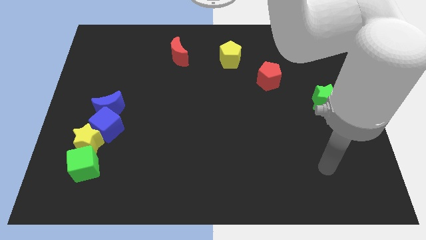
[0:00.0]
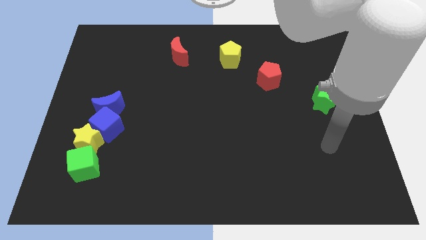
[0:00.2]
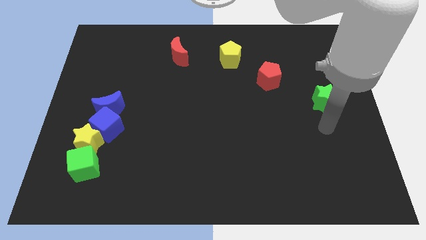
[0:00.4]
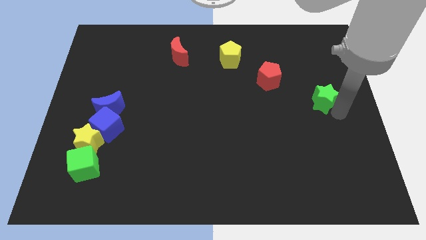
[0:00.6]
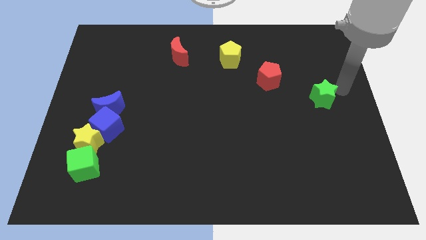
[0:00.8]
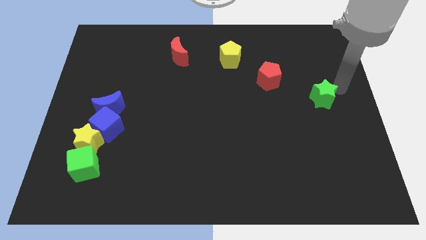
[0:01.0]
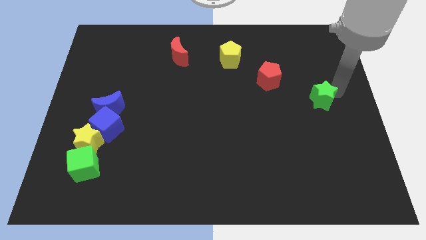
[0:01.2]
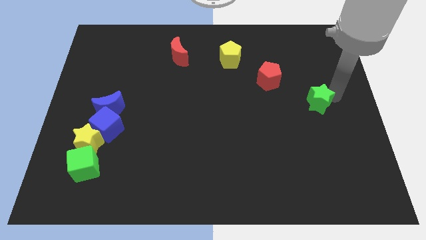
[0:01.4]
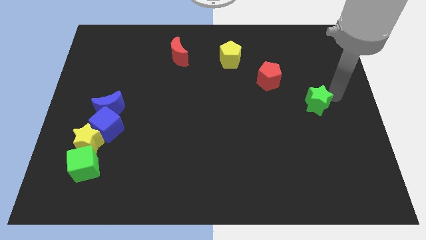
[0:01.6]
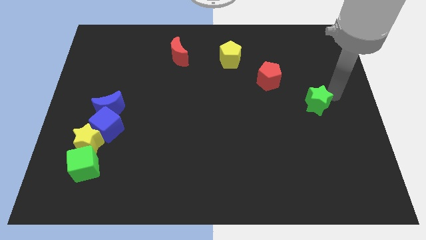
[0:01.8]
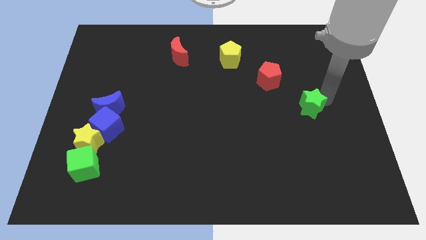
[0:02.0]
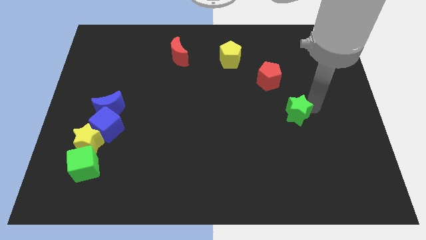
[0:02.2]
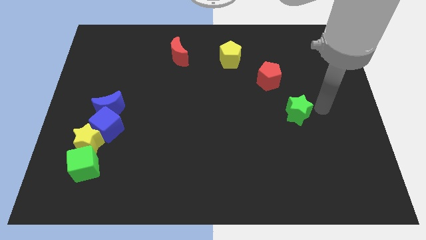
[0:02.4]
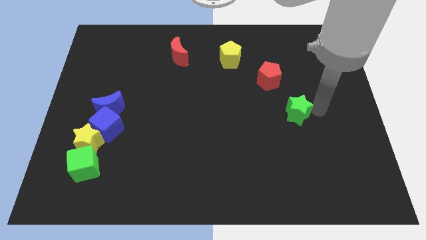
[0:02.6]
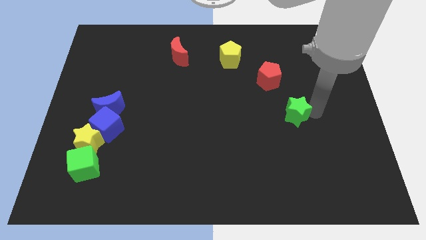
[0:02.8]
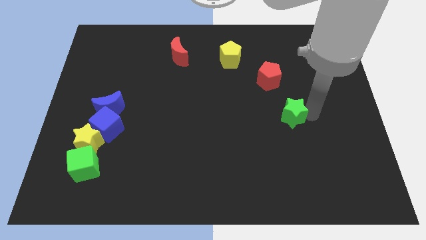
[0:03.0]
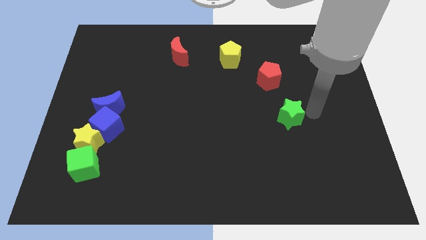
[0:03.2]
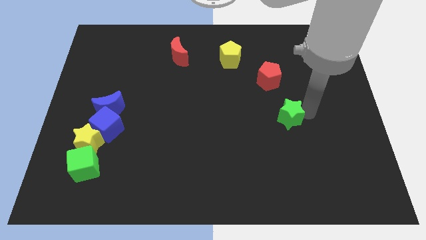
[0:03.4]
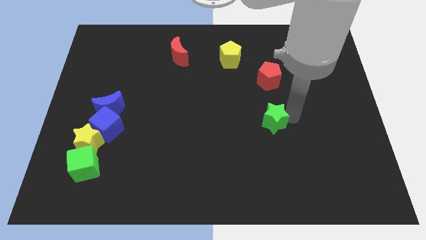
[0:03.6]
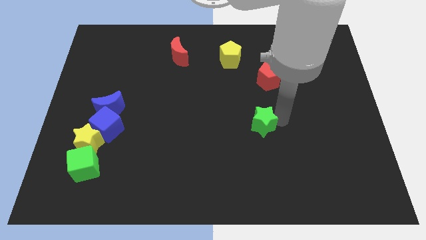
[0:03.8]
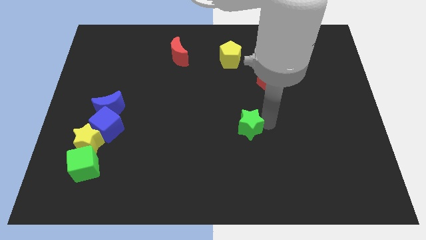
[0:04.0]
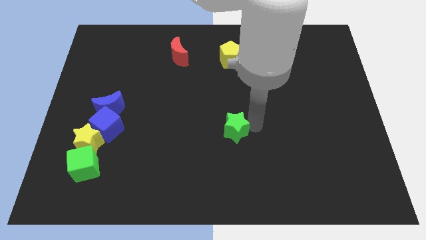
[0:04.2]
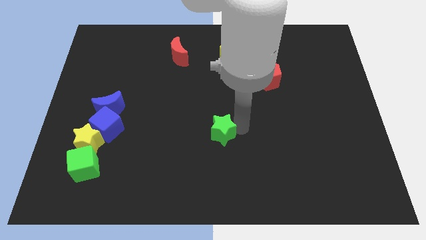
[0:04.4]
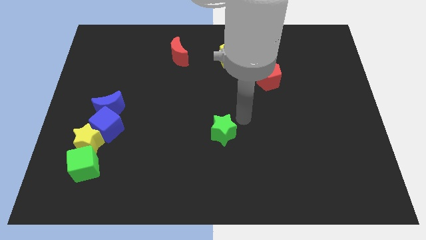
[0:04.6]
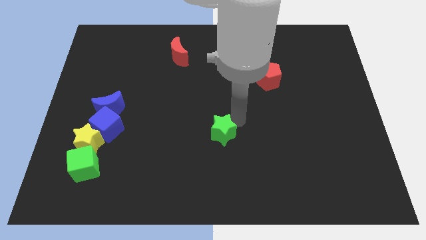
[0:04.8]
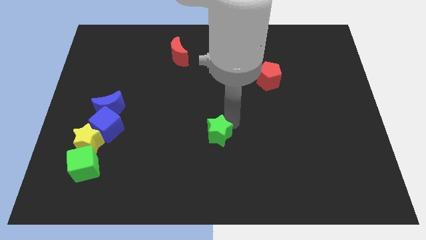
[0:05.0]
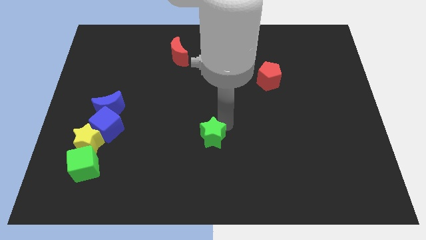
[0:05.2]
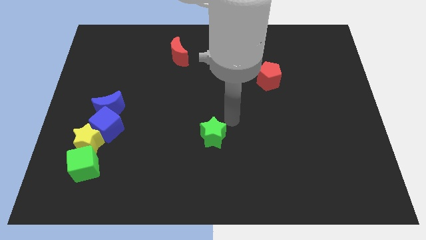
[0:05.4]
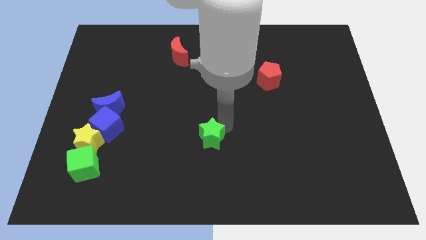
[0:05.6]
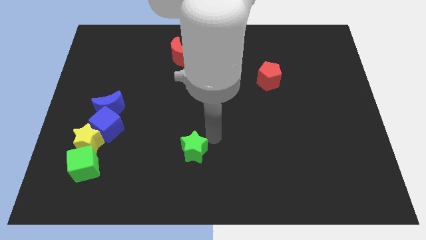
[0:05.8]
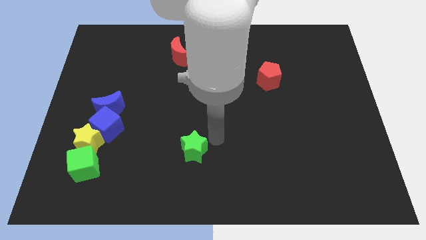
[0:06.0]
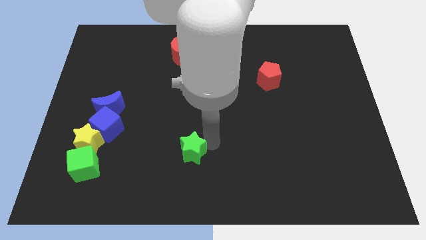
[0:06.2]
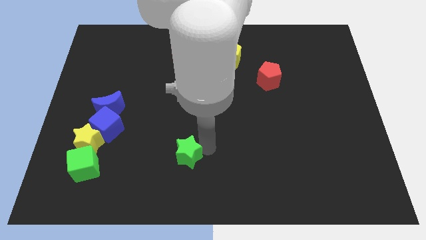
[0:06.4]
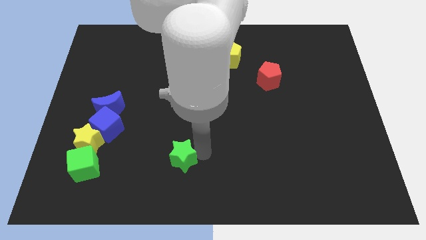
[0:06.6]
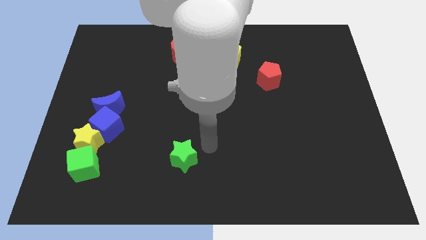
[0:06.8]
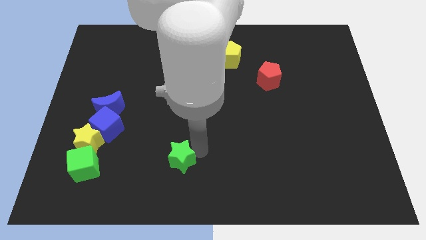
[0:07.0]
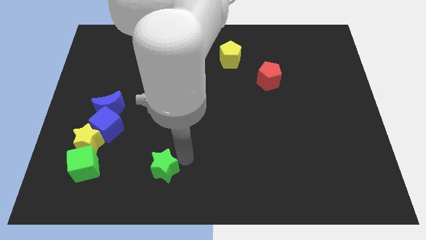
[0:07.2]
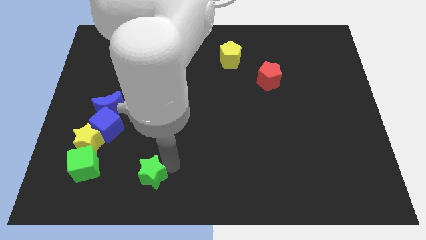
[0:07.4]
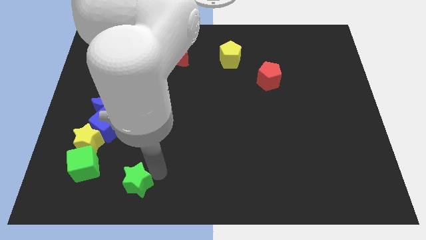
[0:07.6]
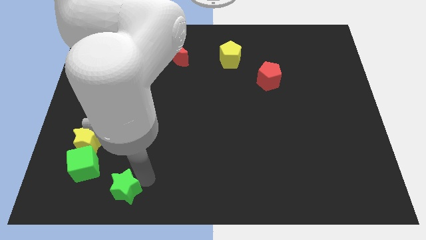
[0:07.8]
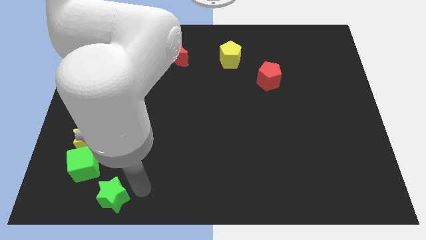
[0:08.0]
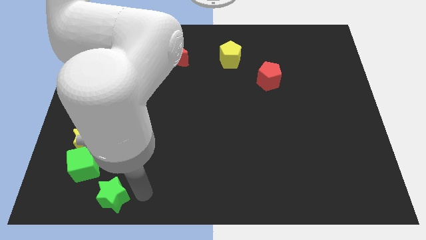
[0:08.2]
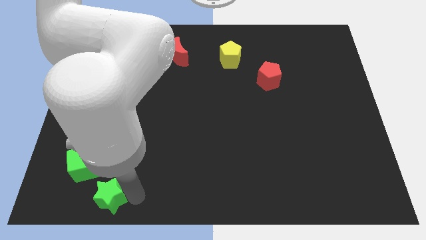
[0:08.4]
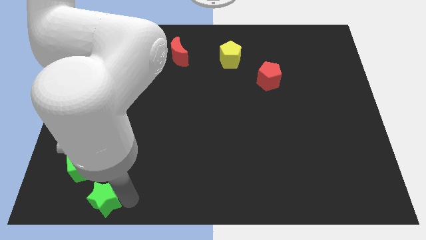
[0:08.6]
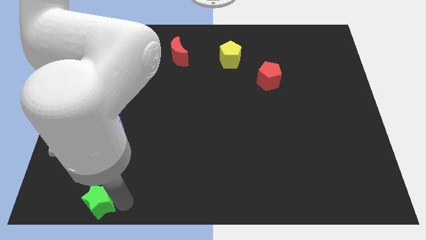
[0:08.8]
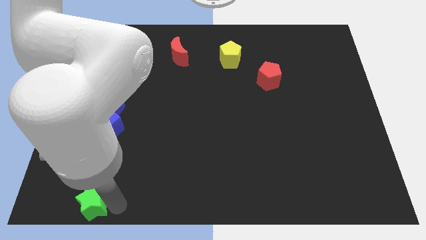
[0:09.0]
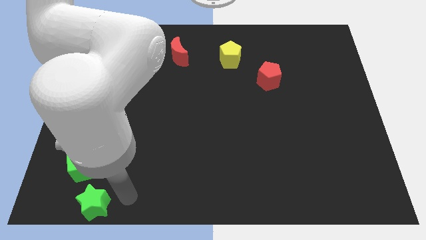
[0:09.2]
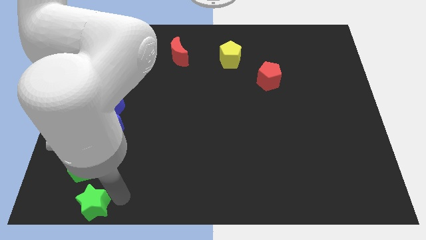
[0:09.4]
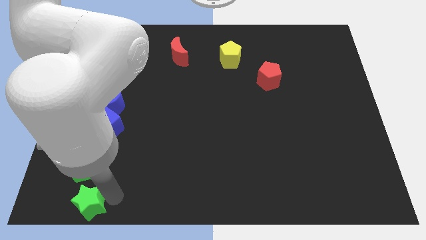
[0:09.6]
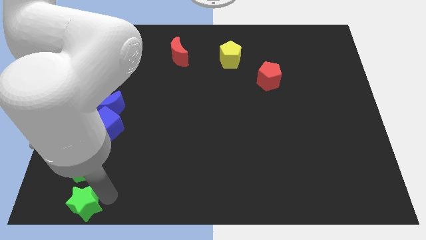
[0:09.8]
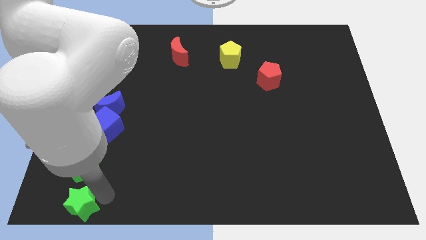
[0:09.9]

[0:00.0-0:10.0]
push the green star to the bottom left of the board

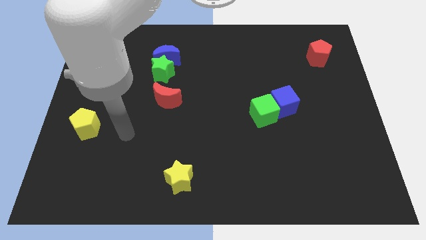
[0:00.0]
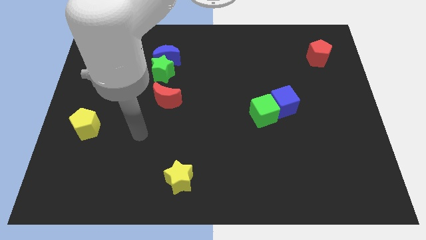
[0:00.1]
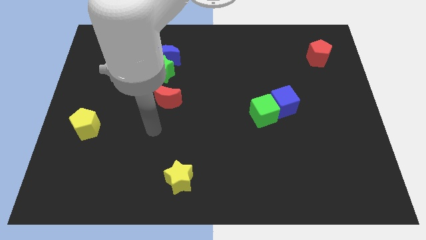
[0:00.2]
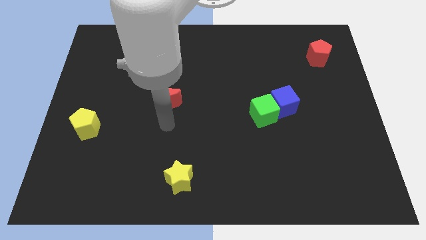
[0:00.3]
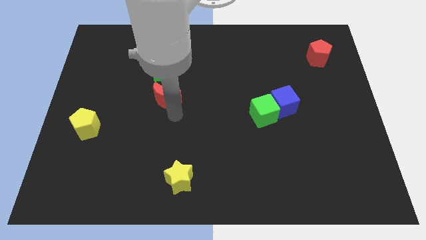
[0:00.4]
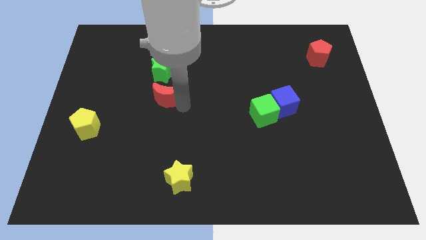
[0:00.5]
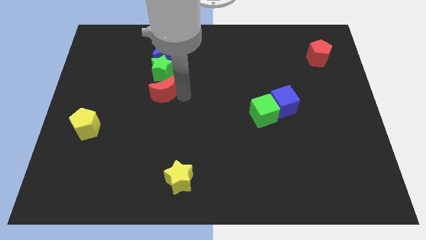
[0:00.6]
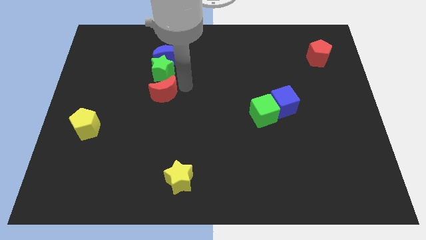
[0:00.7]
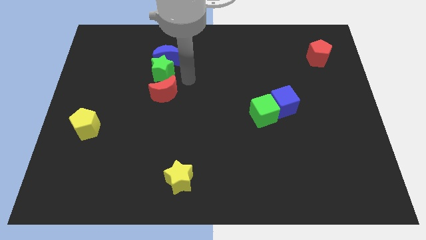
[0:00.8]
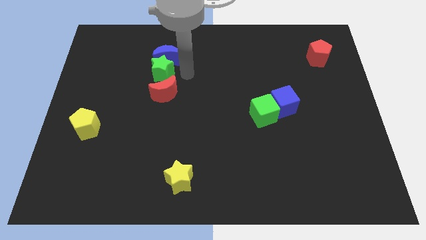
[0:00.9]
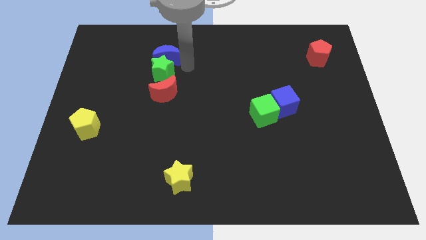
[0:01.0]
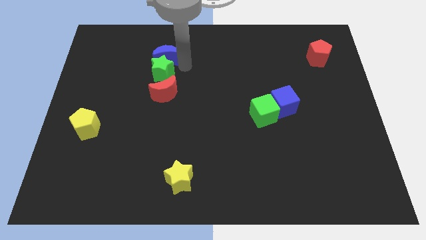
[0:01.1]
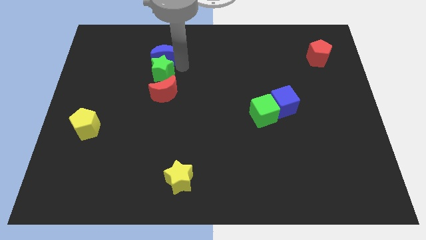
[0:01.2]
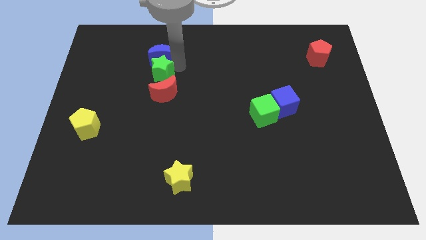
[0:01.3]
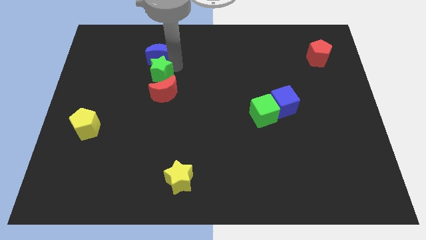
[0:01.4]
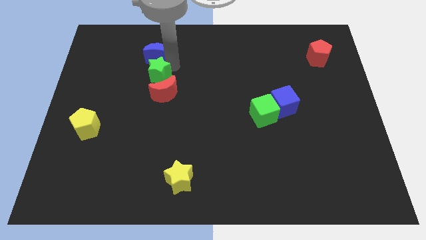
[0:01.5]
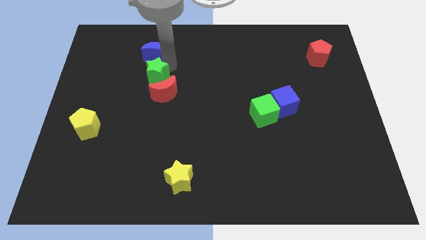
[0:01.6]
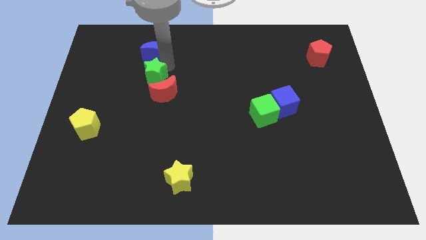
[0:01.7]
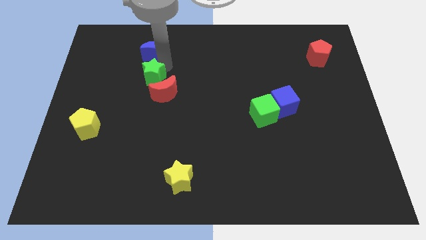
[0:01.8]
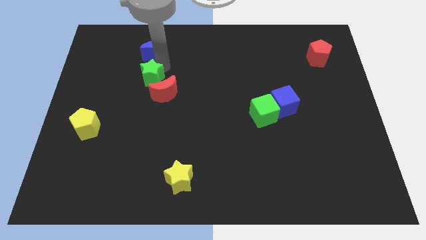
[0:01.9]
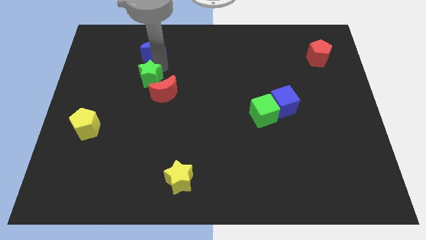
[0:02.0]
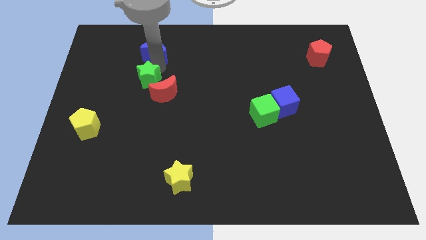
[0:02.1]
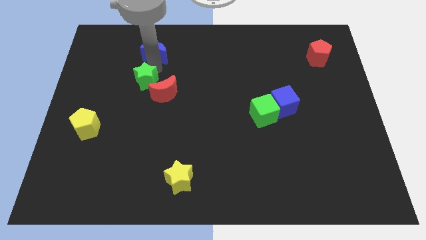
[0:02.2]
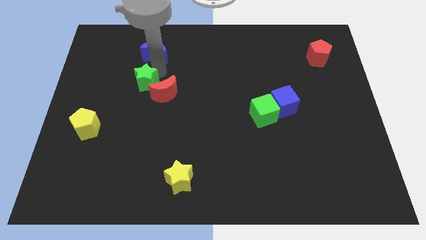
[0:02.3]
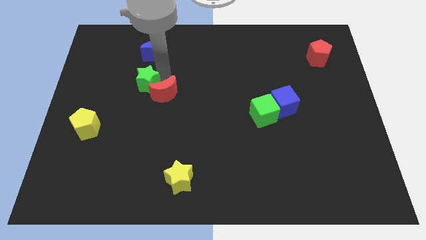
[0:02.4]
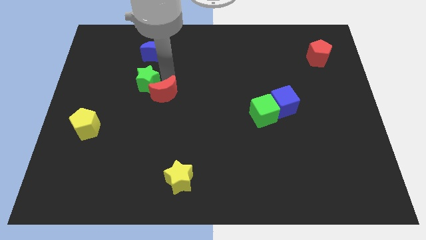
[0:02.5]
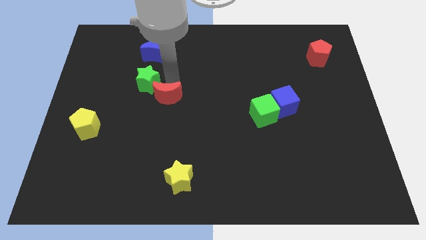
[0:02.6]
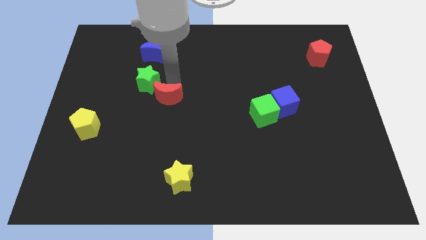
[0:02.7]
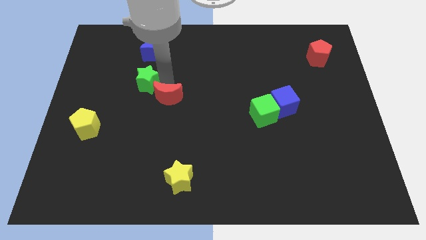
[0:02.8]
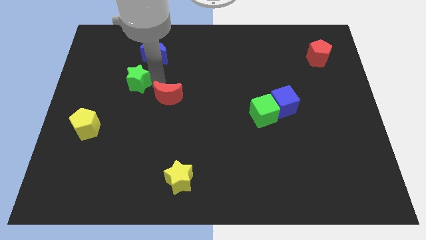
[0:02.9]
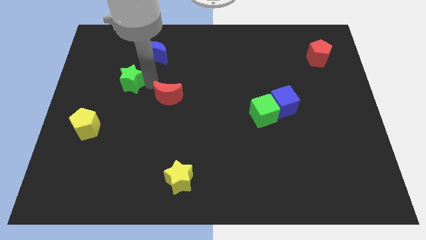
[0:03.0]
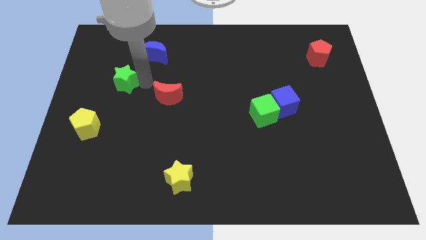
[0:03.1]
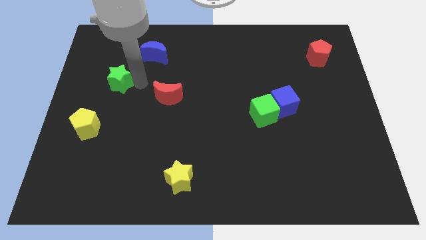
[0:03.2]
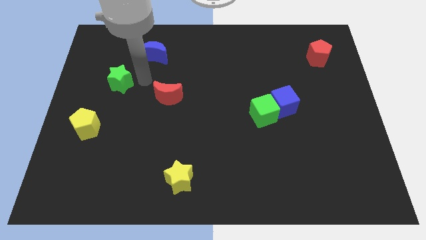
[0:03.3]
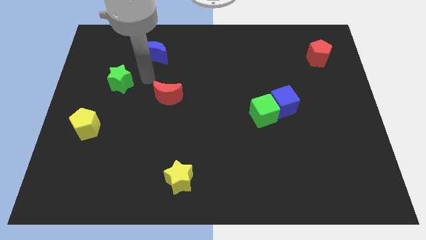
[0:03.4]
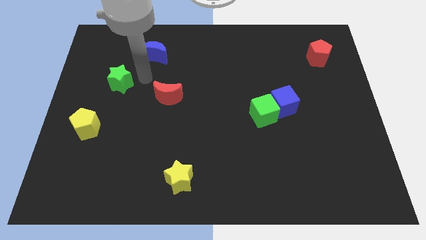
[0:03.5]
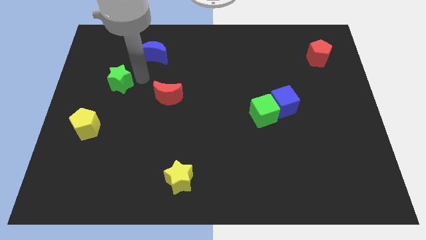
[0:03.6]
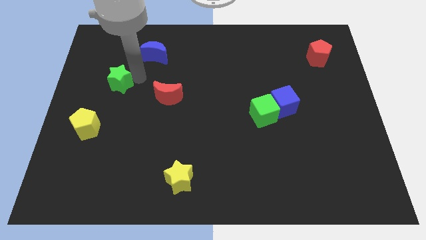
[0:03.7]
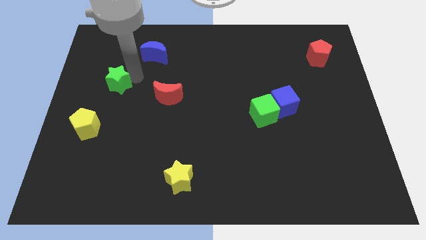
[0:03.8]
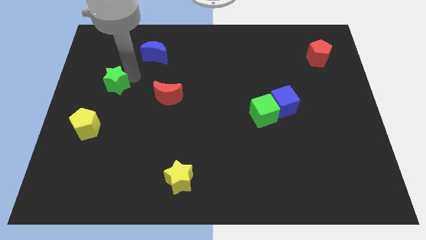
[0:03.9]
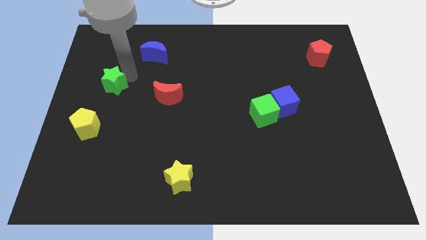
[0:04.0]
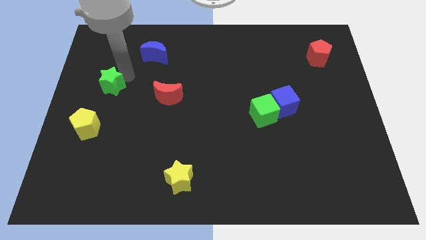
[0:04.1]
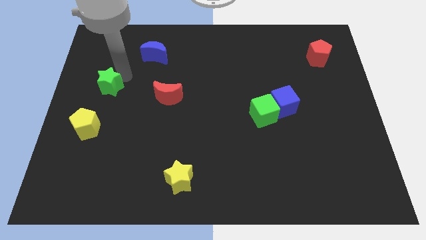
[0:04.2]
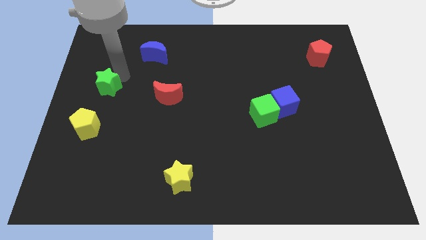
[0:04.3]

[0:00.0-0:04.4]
move the green star to the left side
